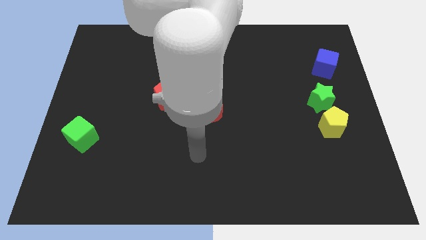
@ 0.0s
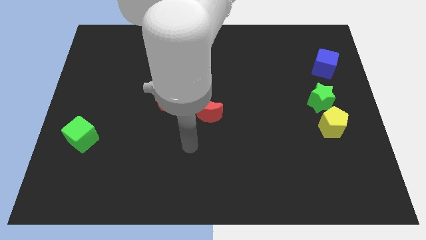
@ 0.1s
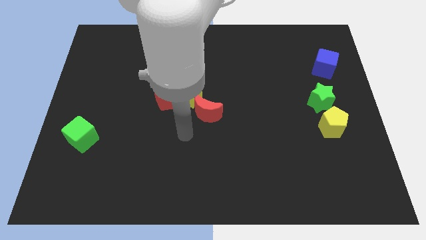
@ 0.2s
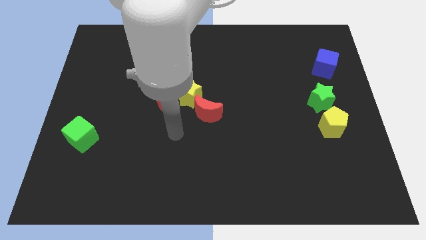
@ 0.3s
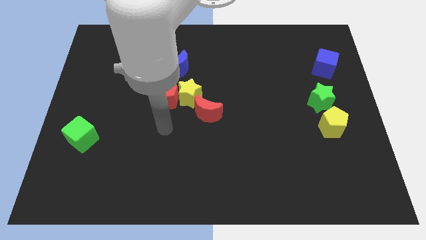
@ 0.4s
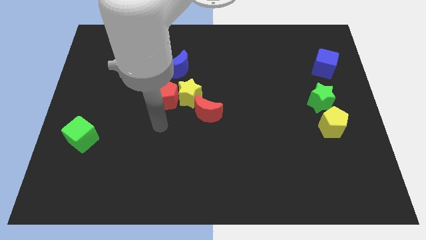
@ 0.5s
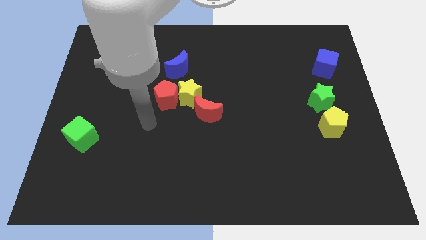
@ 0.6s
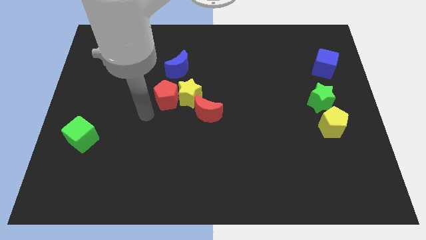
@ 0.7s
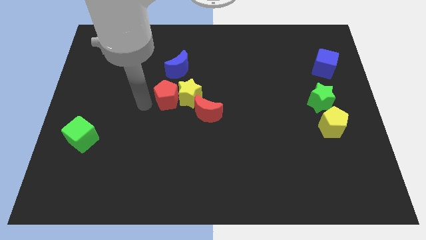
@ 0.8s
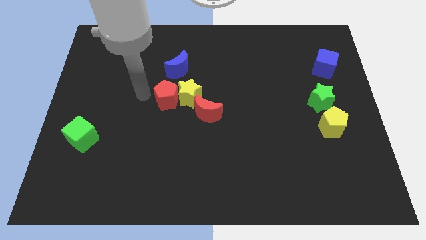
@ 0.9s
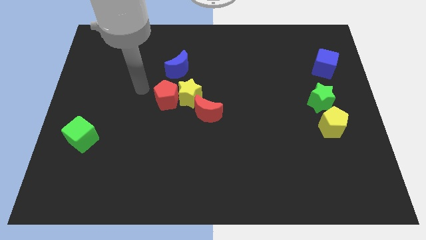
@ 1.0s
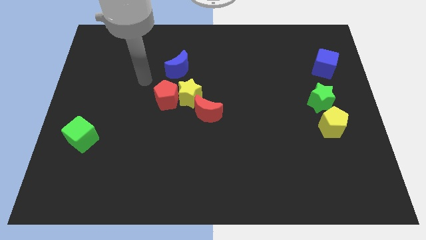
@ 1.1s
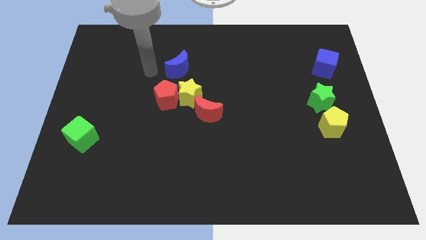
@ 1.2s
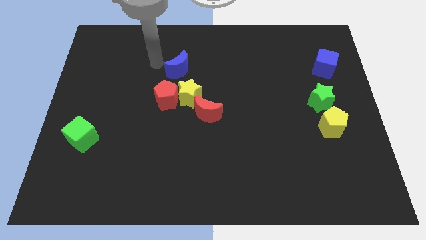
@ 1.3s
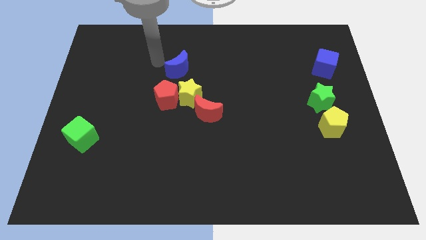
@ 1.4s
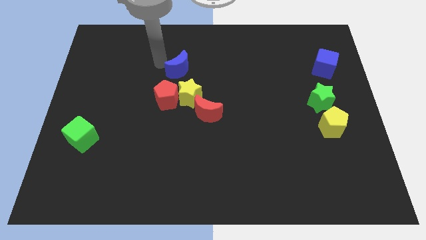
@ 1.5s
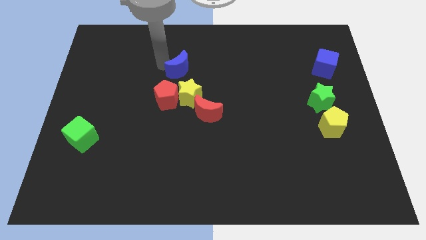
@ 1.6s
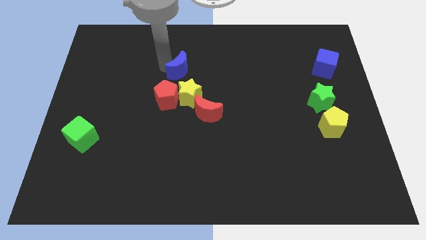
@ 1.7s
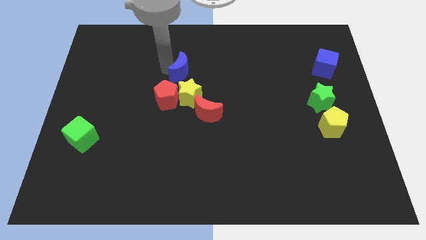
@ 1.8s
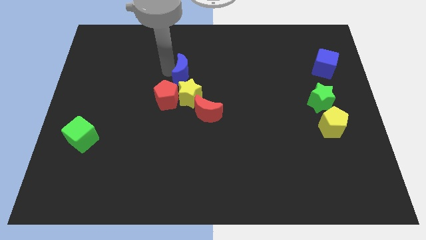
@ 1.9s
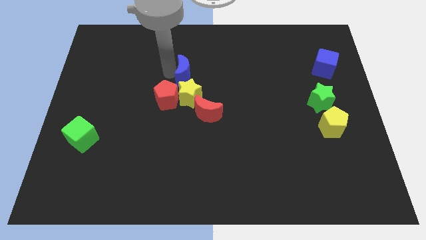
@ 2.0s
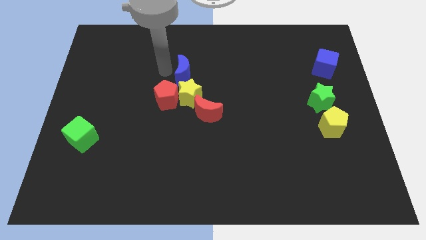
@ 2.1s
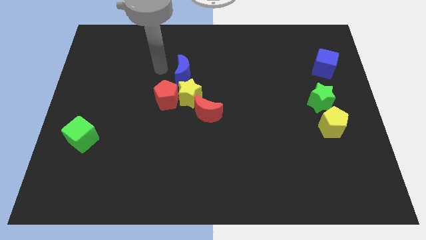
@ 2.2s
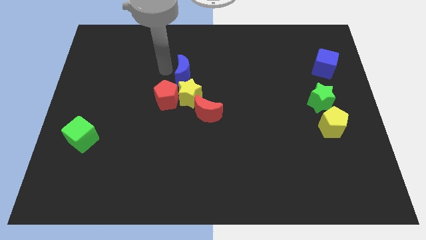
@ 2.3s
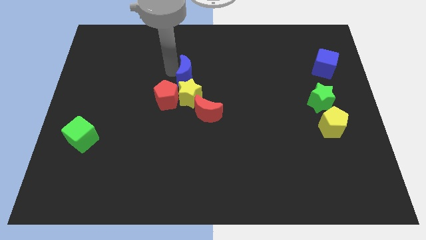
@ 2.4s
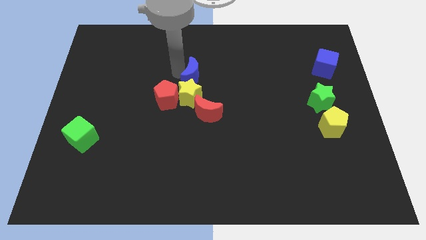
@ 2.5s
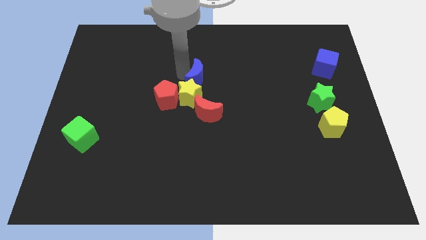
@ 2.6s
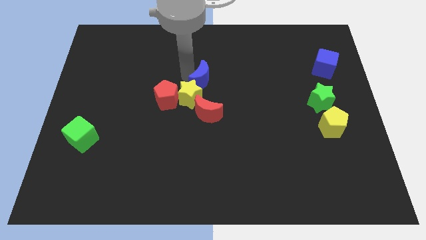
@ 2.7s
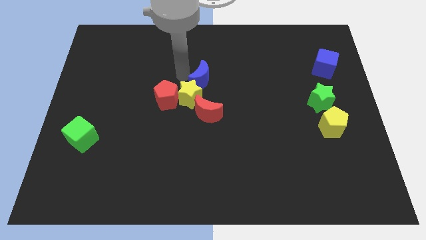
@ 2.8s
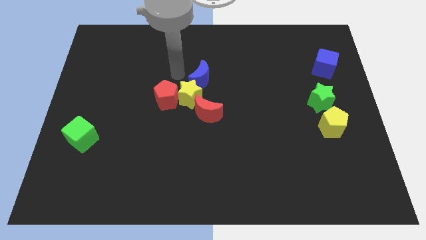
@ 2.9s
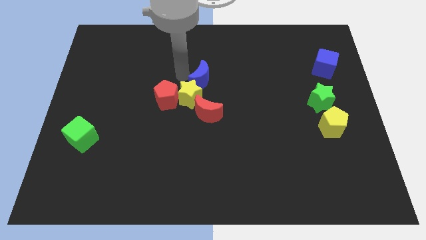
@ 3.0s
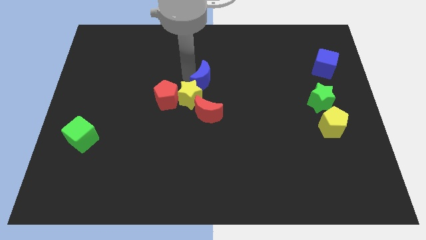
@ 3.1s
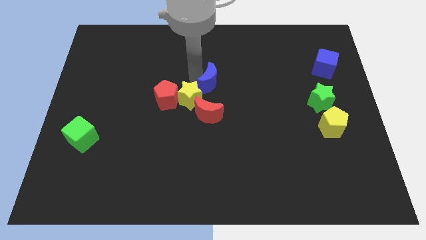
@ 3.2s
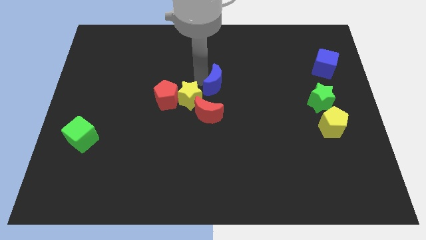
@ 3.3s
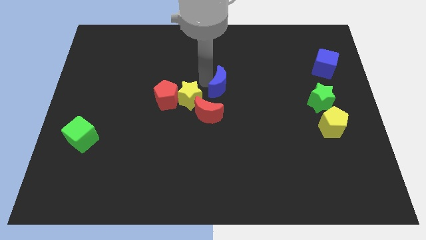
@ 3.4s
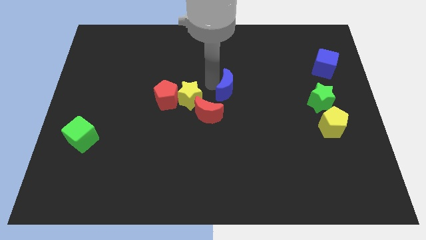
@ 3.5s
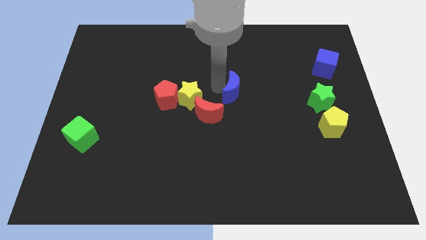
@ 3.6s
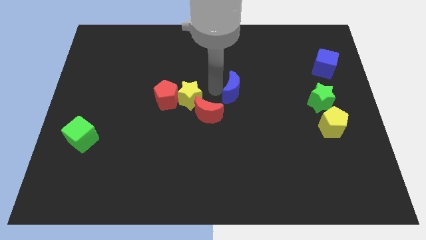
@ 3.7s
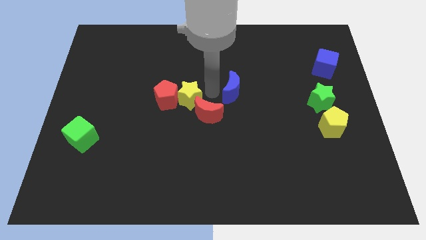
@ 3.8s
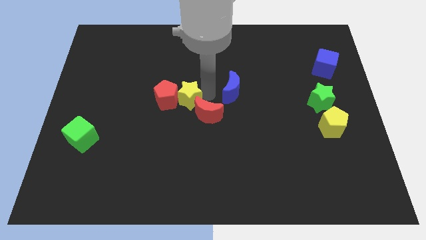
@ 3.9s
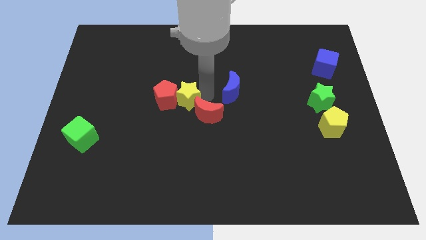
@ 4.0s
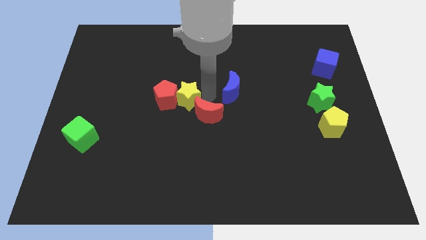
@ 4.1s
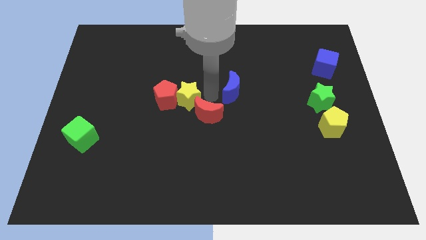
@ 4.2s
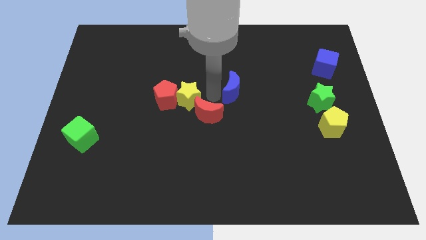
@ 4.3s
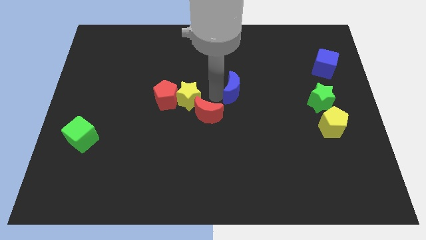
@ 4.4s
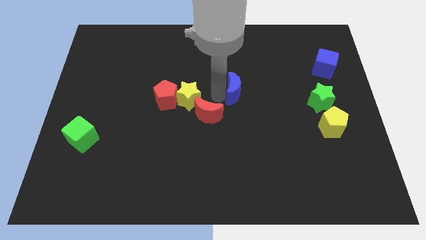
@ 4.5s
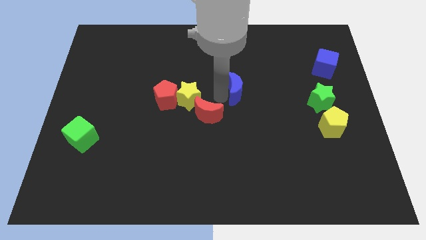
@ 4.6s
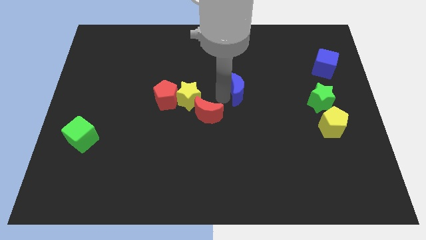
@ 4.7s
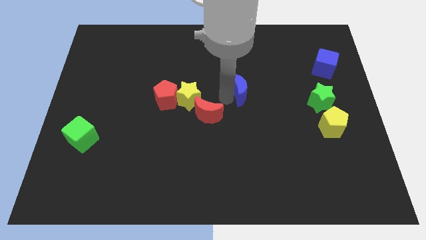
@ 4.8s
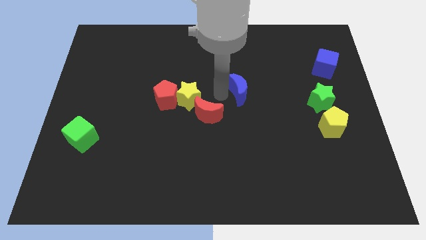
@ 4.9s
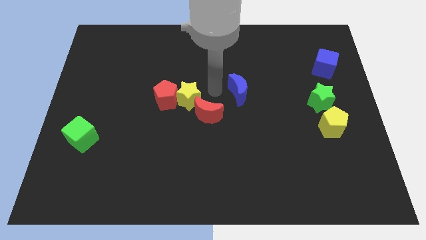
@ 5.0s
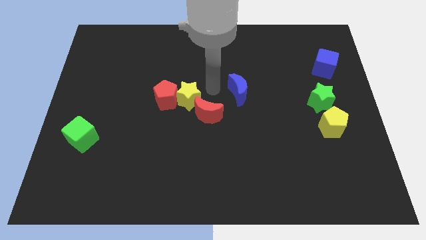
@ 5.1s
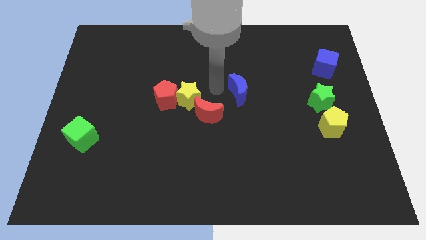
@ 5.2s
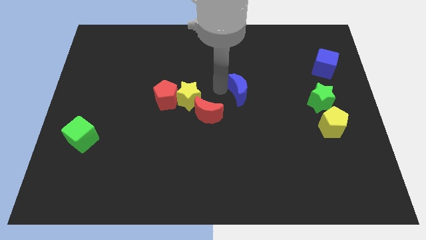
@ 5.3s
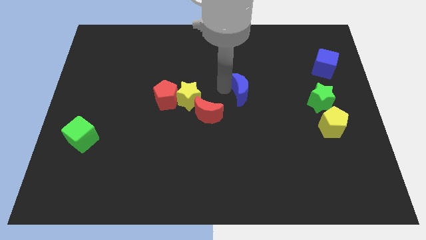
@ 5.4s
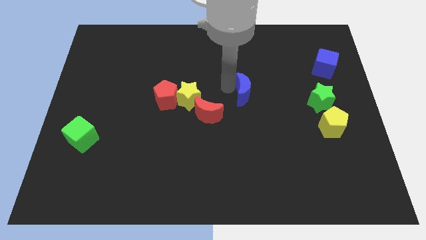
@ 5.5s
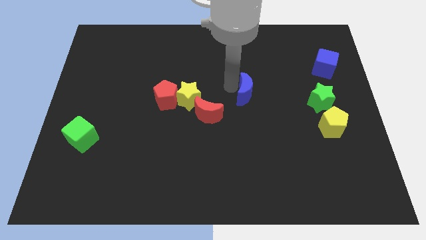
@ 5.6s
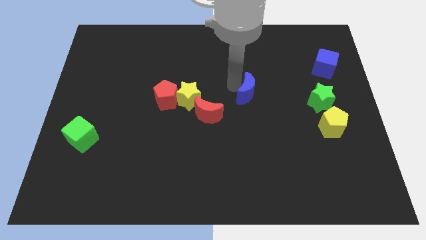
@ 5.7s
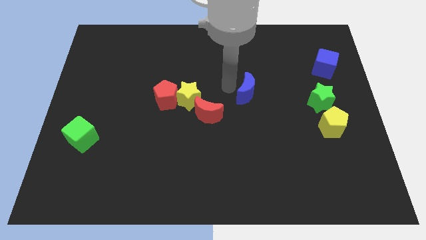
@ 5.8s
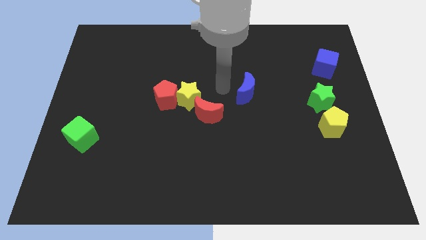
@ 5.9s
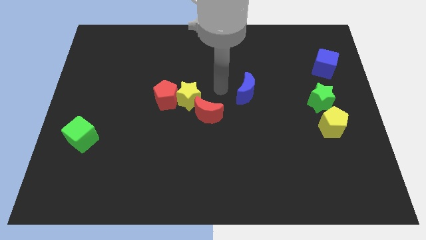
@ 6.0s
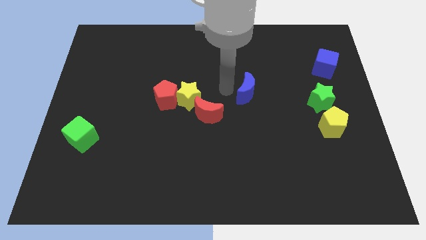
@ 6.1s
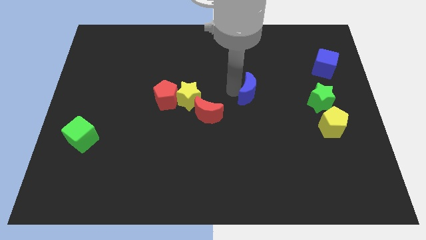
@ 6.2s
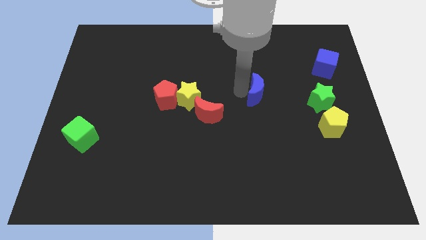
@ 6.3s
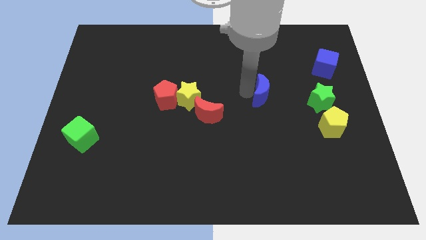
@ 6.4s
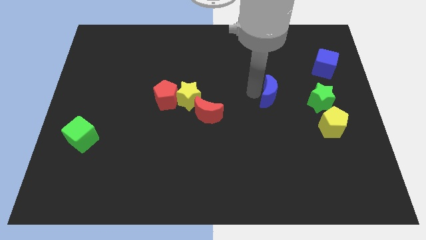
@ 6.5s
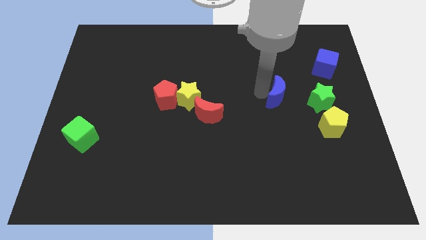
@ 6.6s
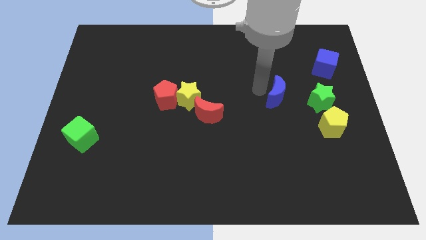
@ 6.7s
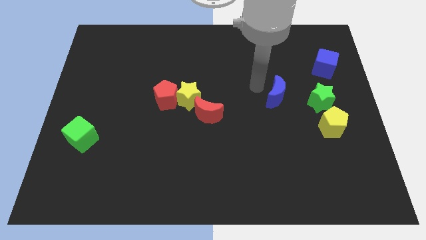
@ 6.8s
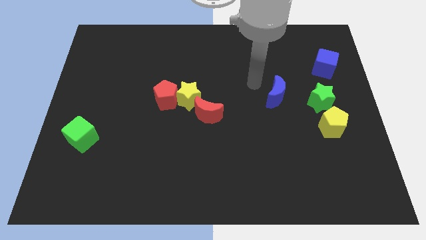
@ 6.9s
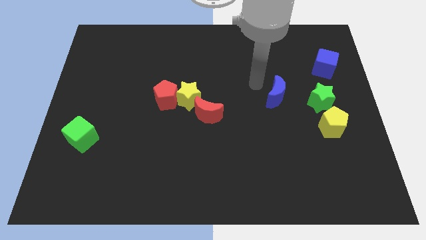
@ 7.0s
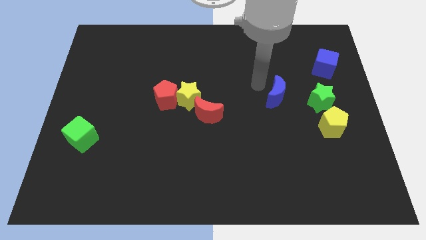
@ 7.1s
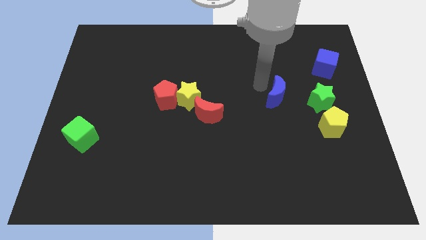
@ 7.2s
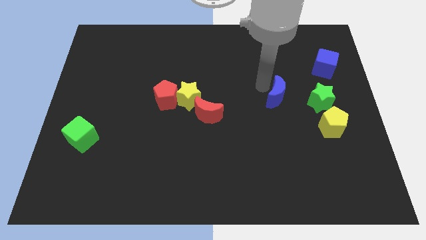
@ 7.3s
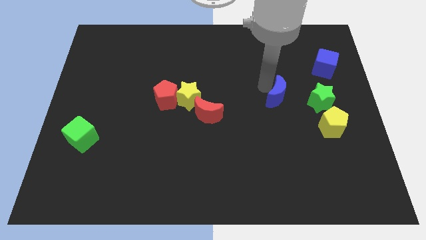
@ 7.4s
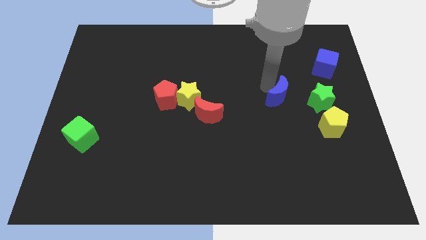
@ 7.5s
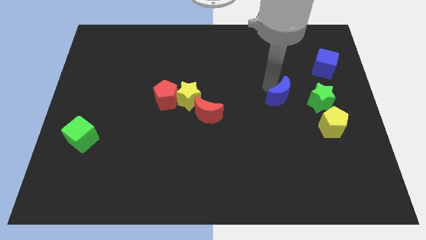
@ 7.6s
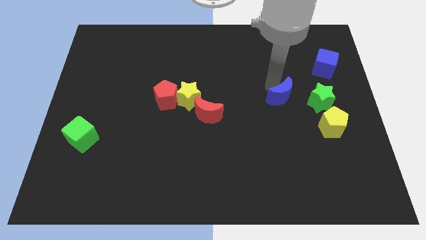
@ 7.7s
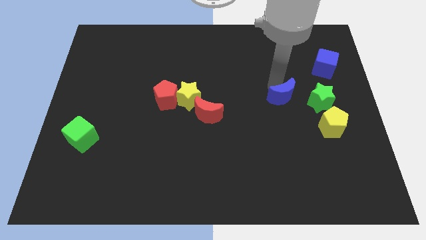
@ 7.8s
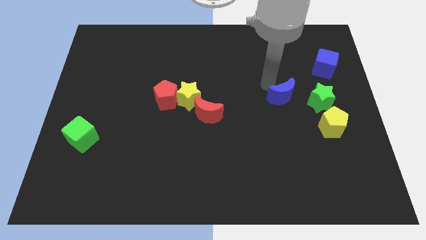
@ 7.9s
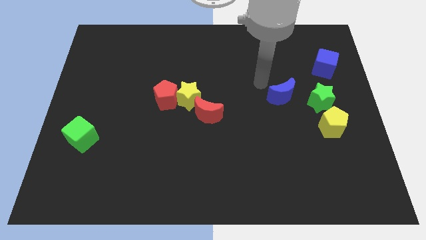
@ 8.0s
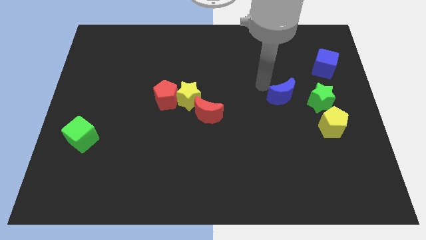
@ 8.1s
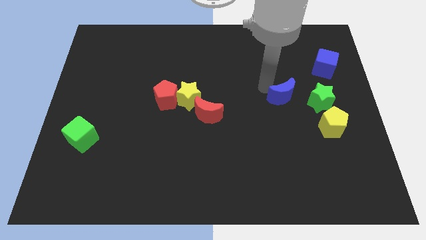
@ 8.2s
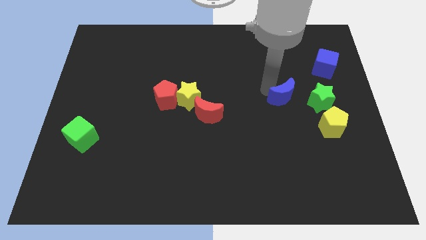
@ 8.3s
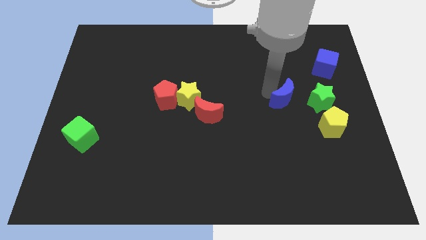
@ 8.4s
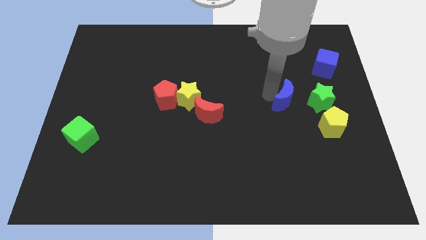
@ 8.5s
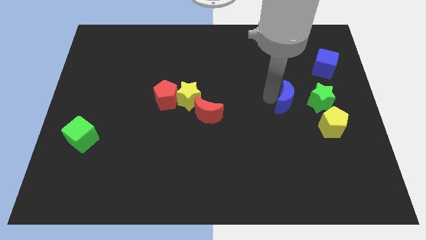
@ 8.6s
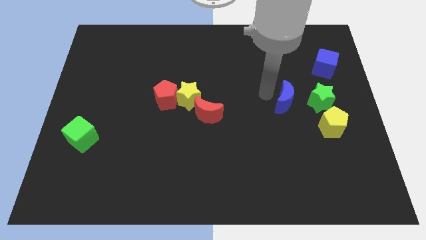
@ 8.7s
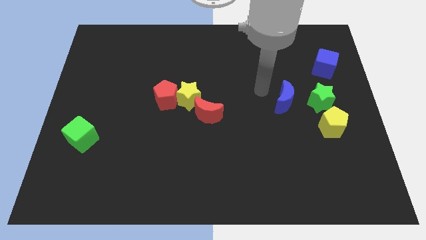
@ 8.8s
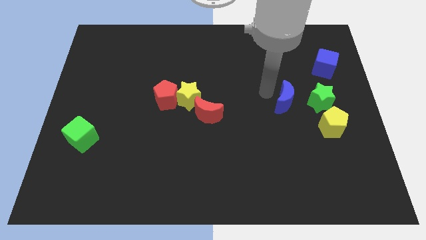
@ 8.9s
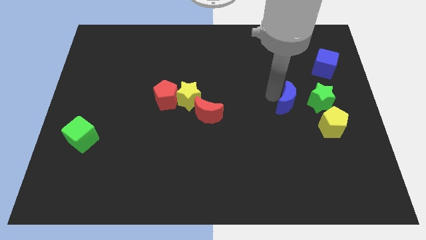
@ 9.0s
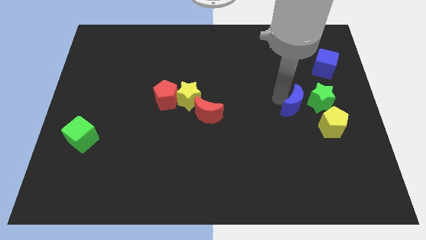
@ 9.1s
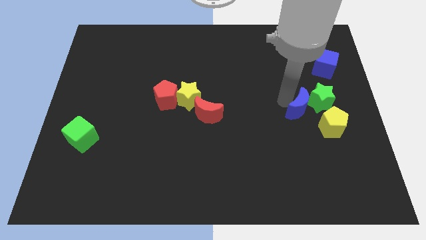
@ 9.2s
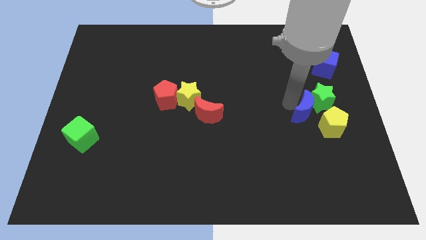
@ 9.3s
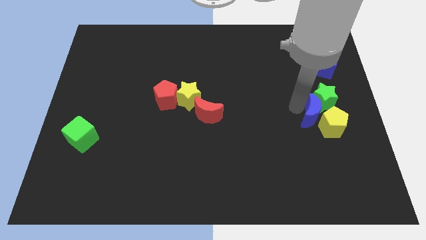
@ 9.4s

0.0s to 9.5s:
move the blue moon next to the yellow pentagon
